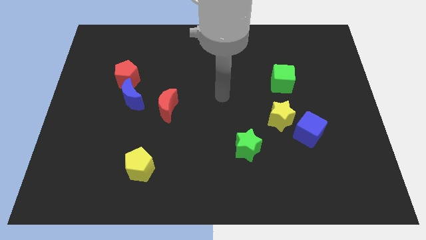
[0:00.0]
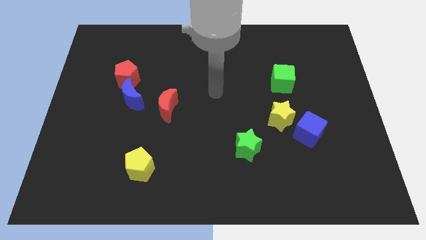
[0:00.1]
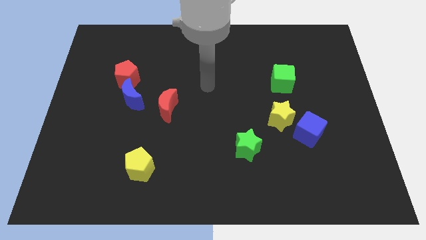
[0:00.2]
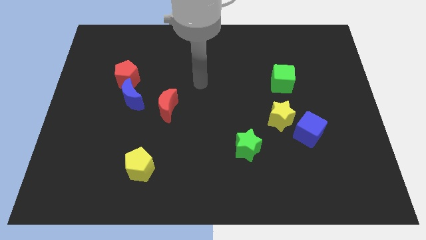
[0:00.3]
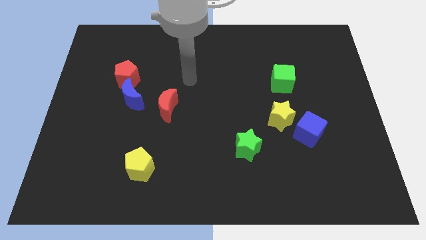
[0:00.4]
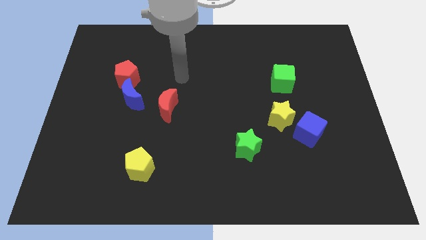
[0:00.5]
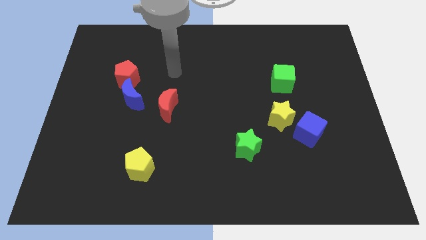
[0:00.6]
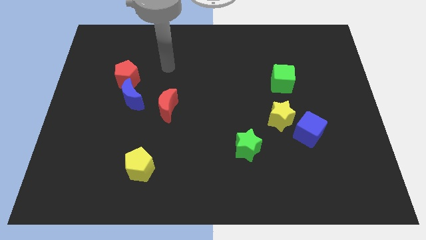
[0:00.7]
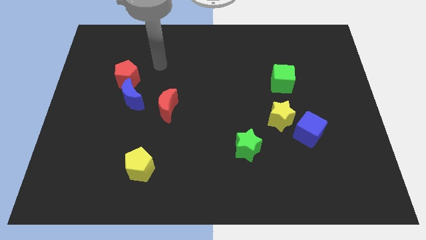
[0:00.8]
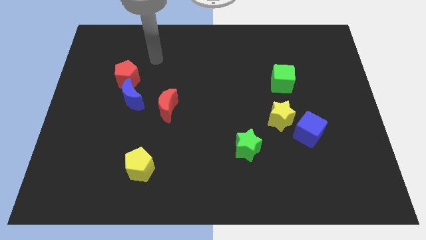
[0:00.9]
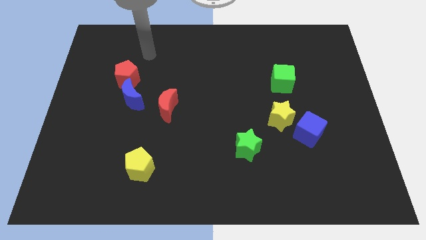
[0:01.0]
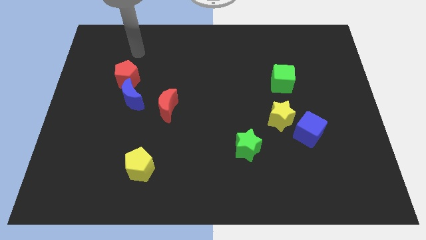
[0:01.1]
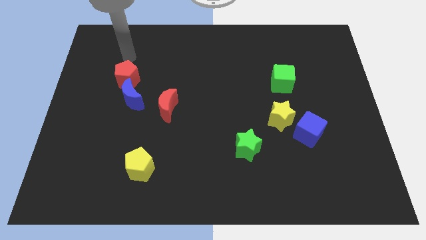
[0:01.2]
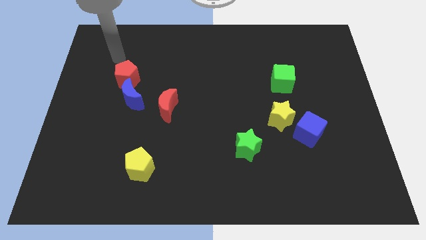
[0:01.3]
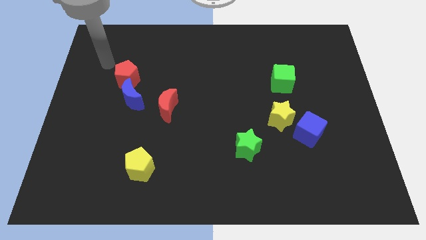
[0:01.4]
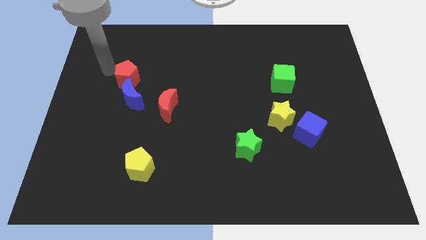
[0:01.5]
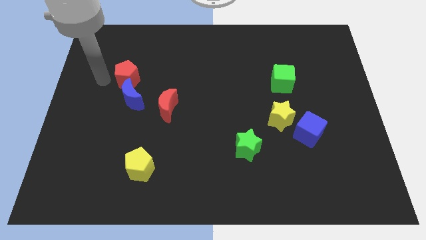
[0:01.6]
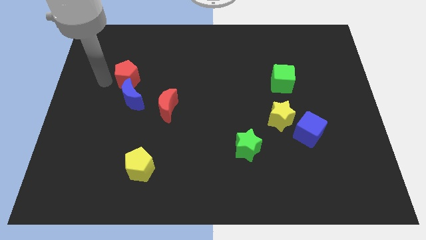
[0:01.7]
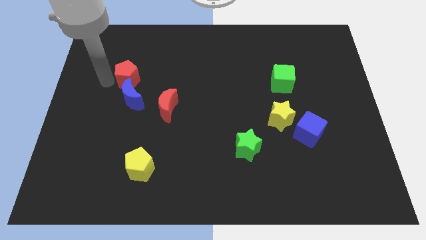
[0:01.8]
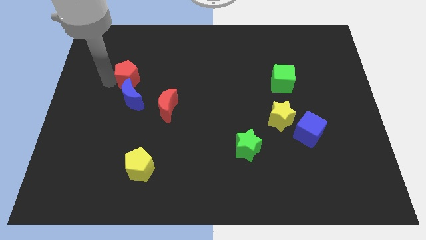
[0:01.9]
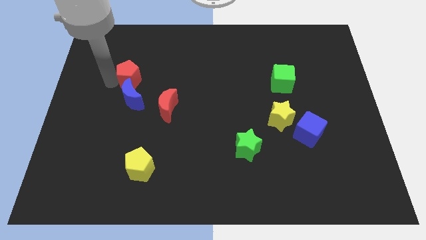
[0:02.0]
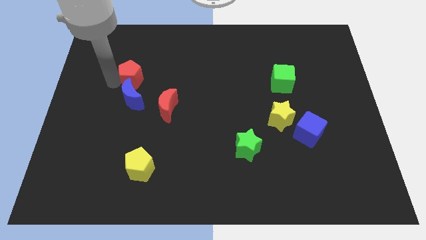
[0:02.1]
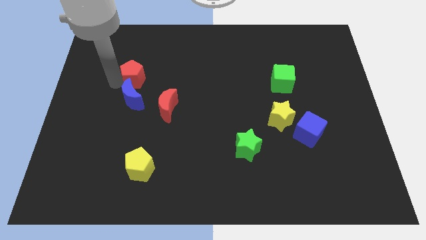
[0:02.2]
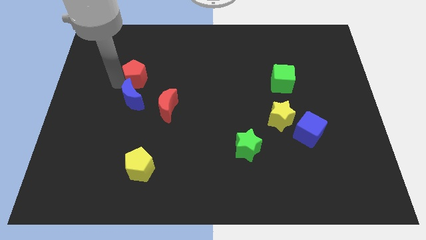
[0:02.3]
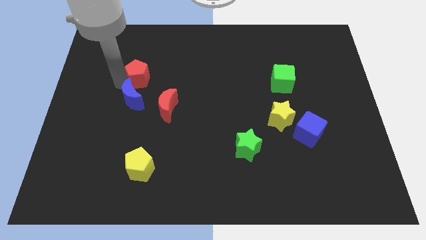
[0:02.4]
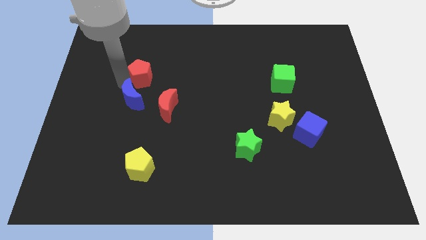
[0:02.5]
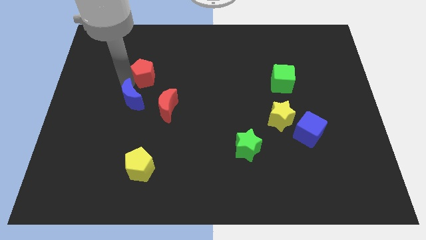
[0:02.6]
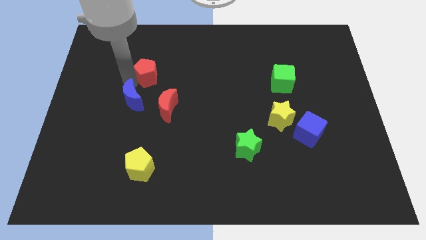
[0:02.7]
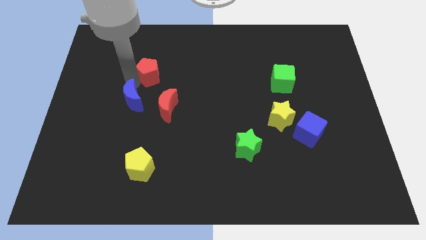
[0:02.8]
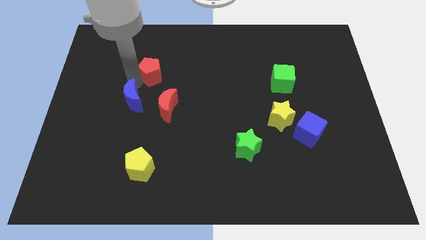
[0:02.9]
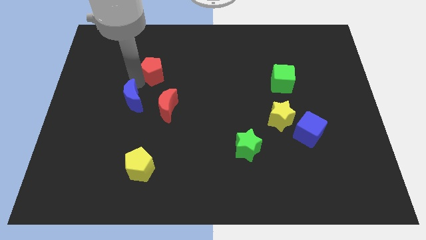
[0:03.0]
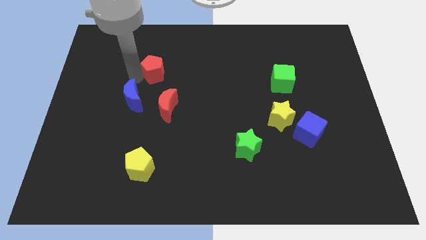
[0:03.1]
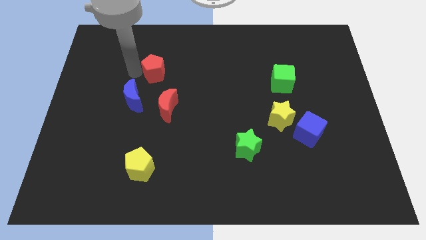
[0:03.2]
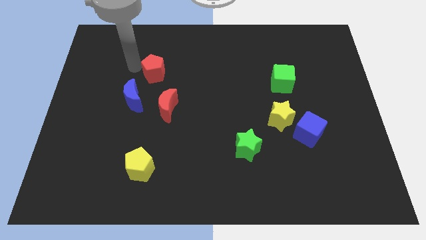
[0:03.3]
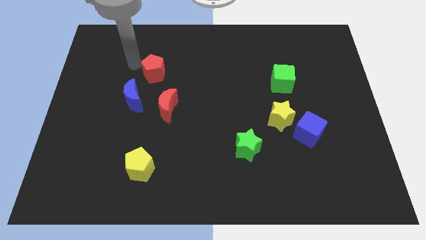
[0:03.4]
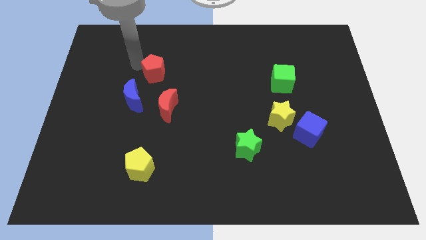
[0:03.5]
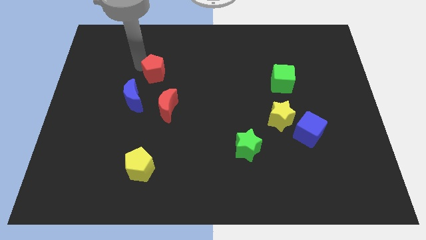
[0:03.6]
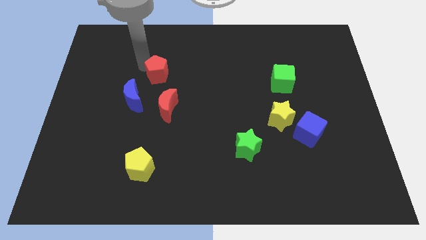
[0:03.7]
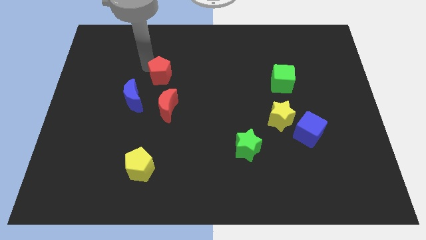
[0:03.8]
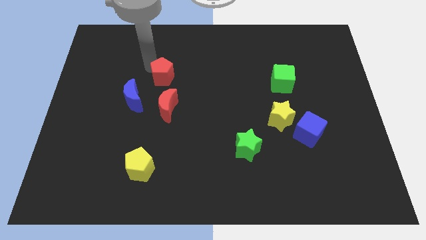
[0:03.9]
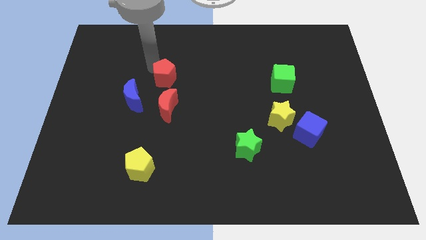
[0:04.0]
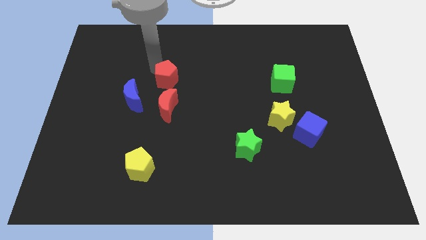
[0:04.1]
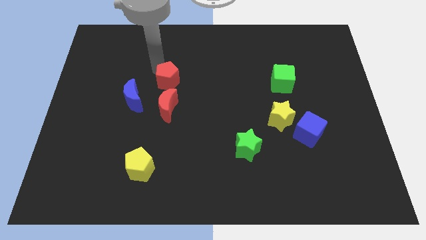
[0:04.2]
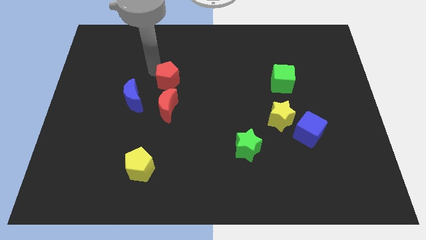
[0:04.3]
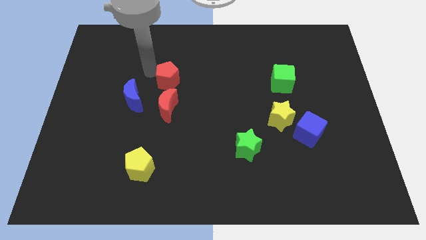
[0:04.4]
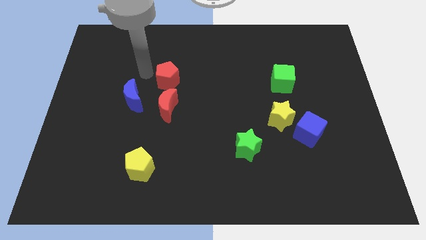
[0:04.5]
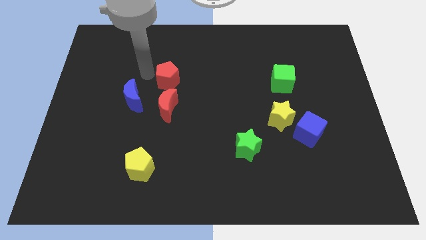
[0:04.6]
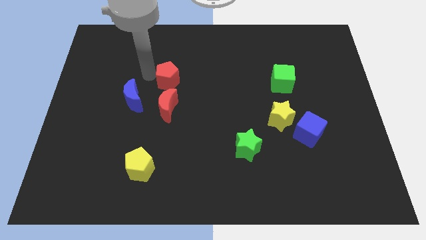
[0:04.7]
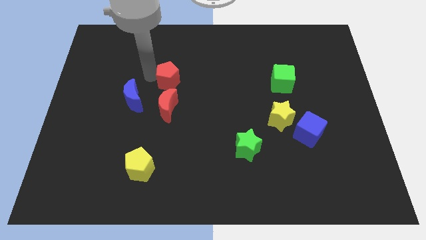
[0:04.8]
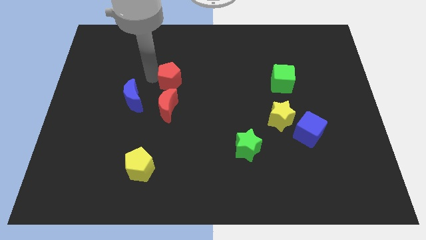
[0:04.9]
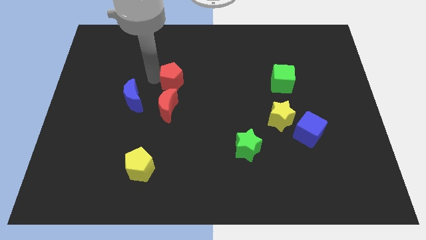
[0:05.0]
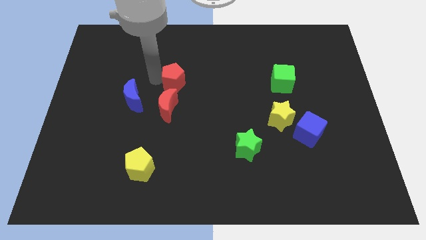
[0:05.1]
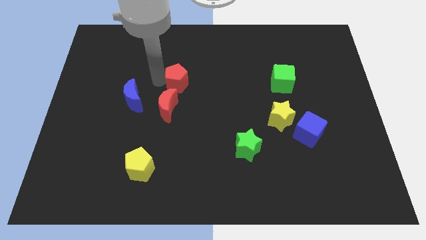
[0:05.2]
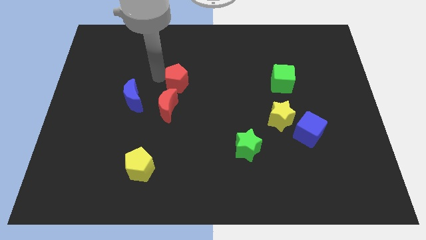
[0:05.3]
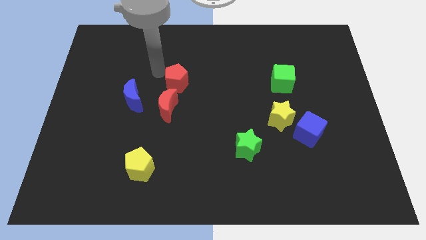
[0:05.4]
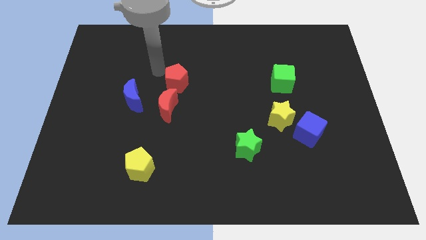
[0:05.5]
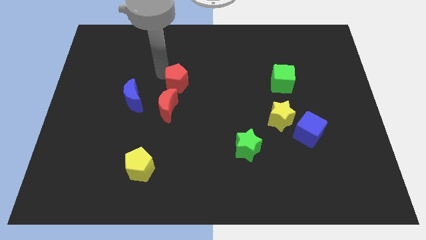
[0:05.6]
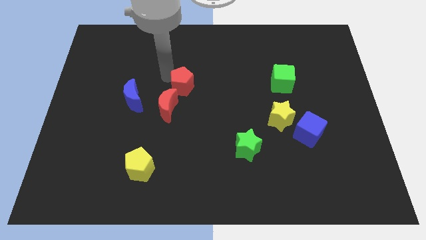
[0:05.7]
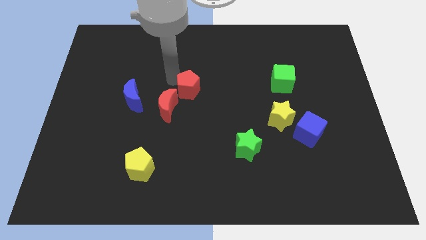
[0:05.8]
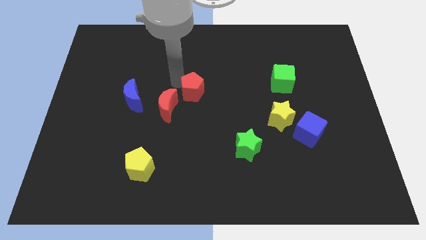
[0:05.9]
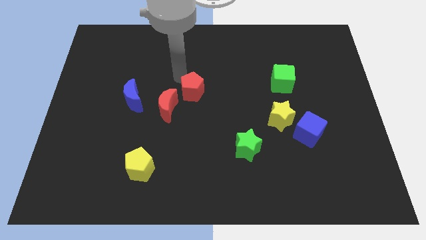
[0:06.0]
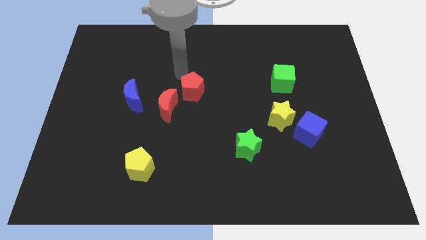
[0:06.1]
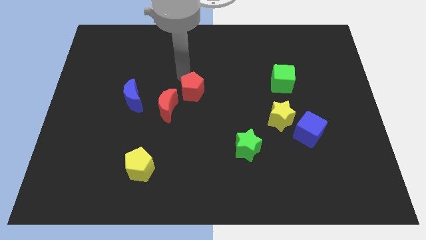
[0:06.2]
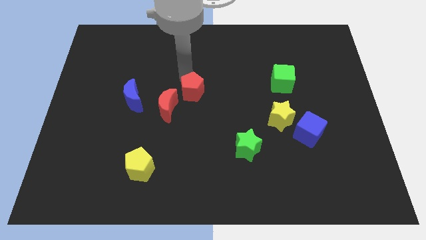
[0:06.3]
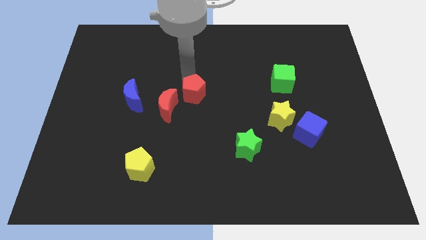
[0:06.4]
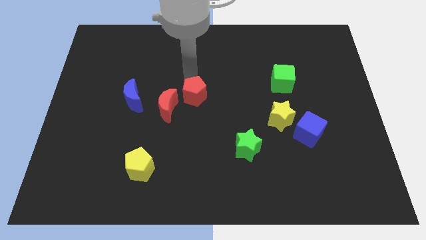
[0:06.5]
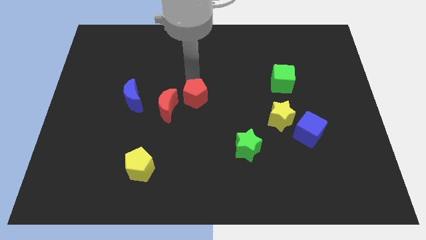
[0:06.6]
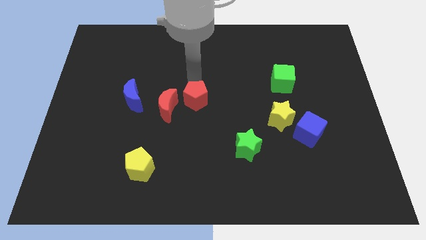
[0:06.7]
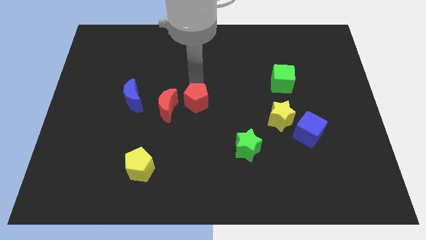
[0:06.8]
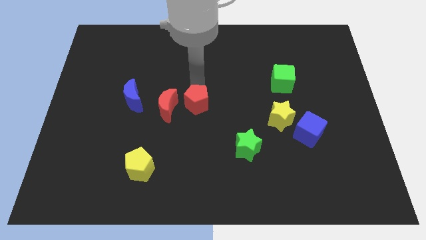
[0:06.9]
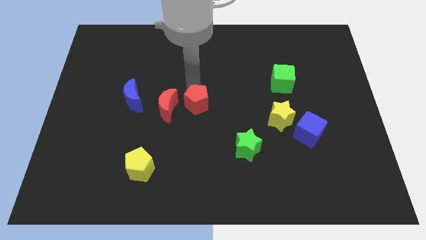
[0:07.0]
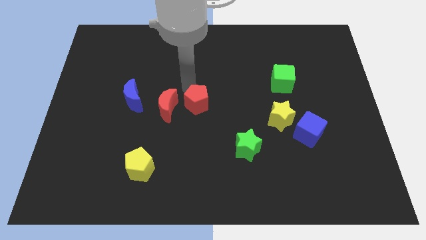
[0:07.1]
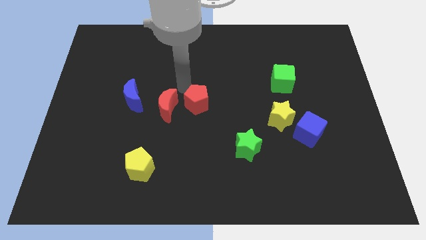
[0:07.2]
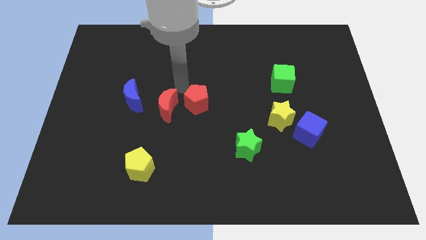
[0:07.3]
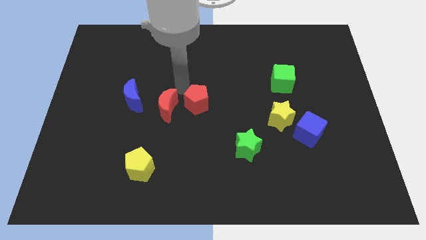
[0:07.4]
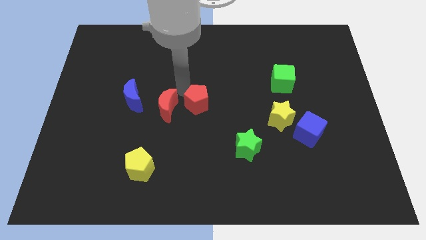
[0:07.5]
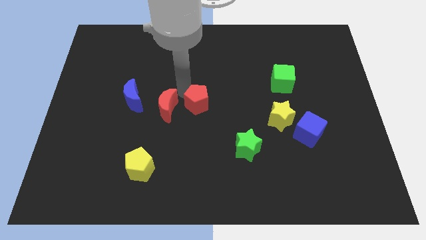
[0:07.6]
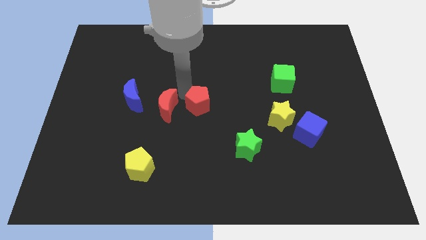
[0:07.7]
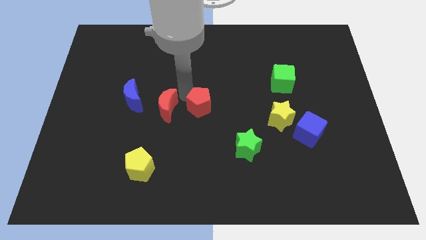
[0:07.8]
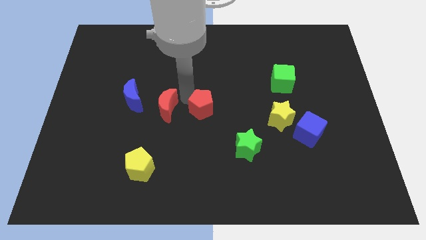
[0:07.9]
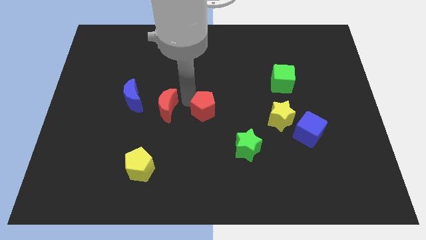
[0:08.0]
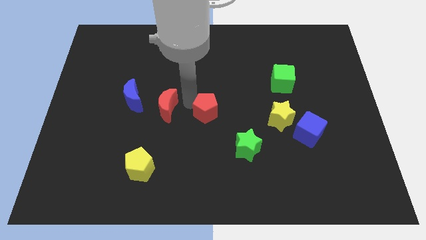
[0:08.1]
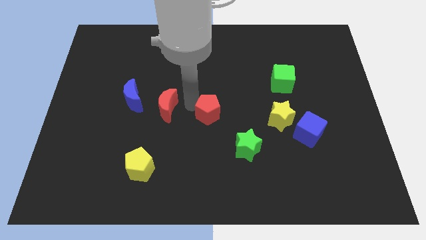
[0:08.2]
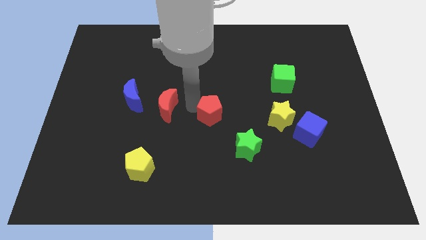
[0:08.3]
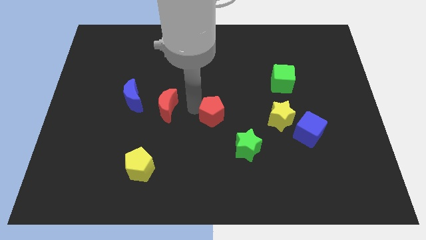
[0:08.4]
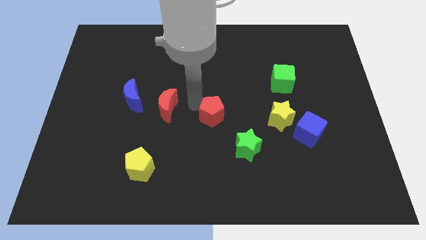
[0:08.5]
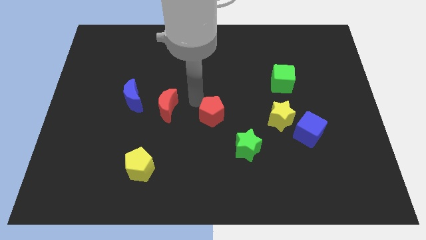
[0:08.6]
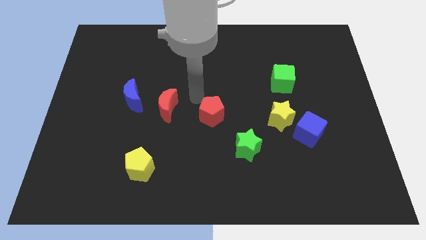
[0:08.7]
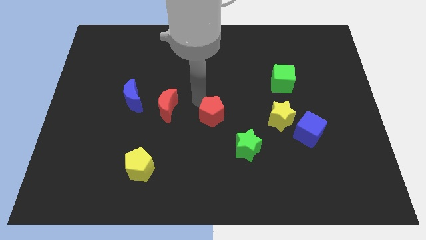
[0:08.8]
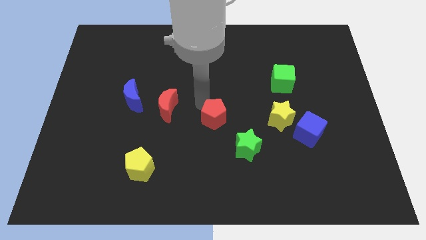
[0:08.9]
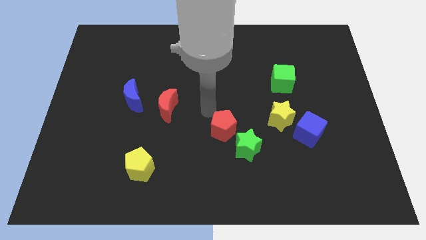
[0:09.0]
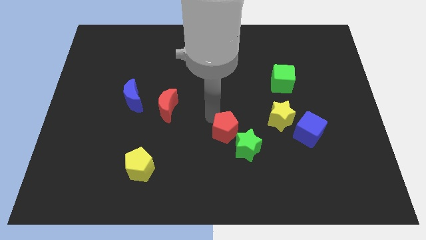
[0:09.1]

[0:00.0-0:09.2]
move the red pentagon to the green star
